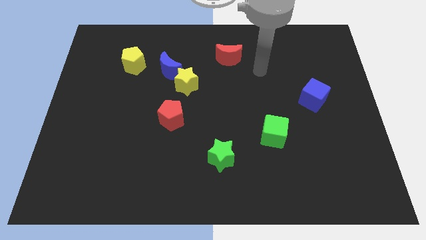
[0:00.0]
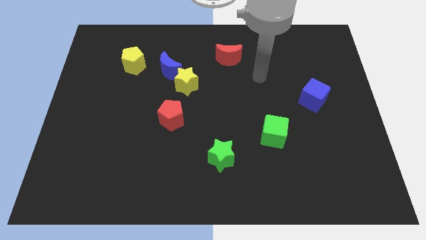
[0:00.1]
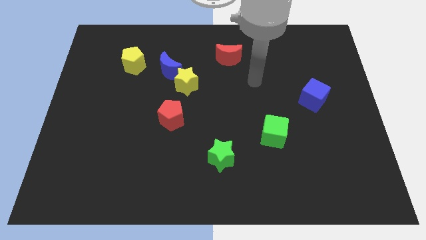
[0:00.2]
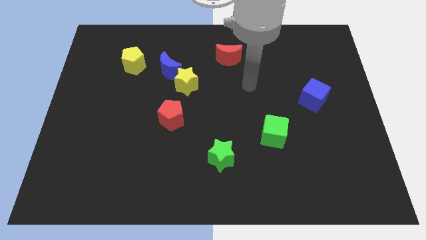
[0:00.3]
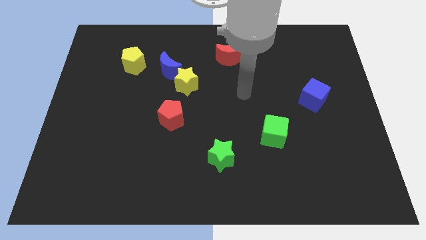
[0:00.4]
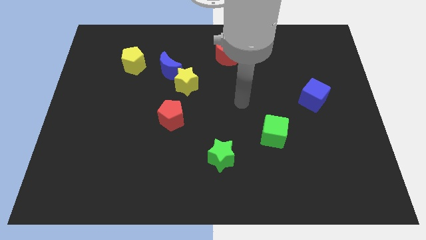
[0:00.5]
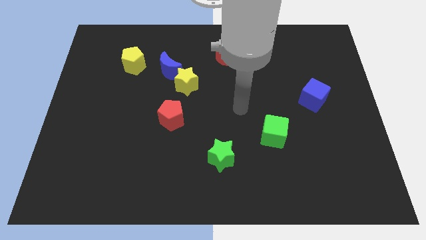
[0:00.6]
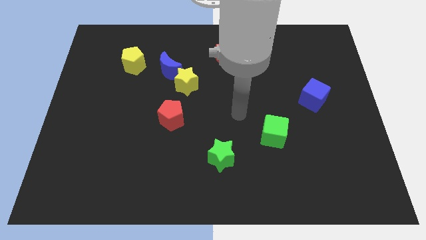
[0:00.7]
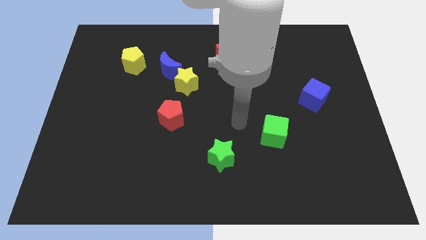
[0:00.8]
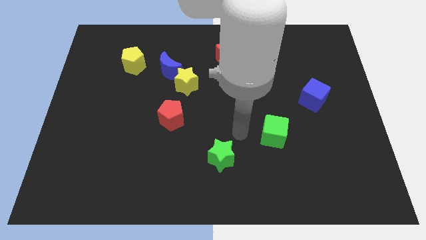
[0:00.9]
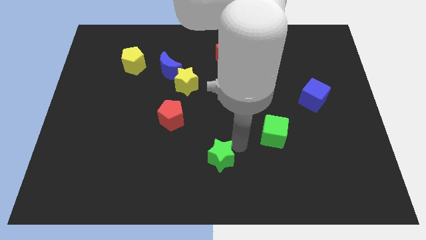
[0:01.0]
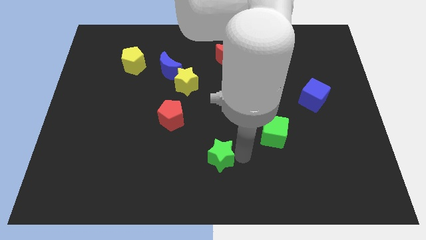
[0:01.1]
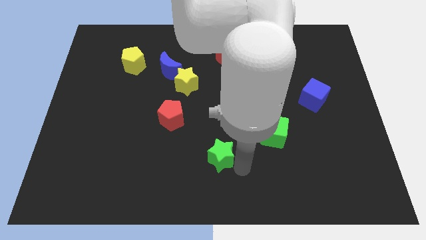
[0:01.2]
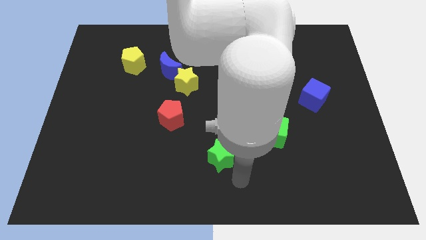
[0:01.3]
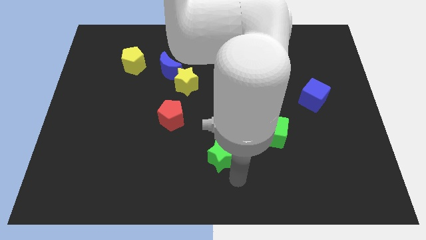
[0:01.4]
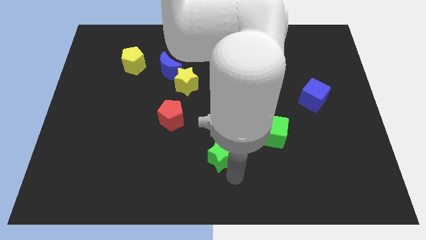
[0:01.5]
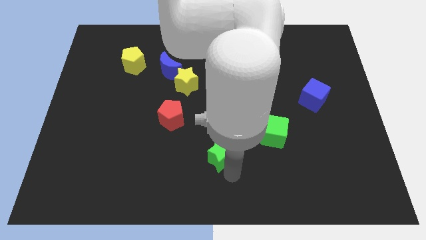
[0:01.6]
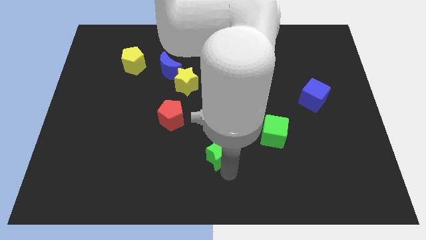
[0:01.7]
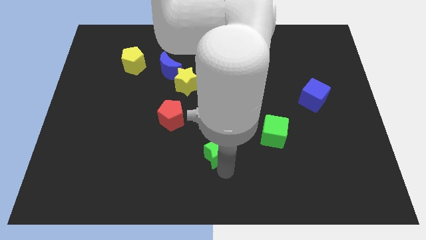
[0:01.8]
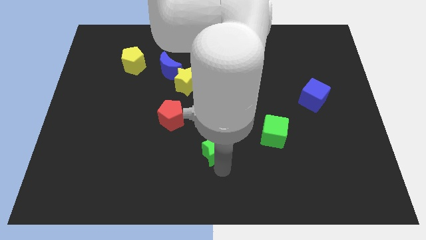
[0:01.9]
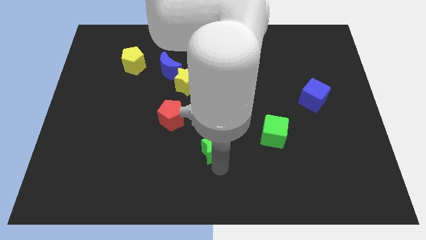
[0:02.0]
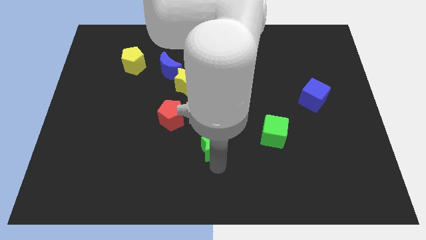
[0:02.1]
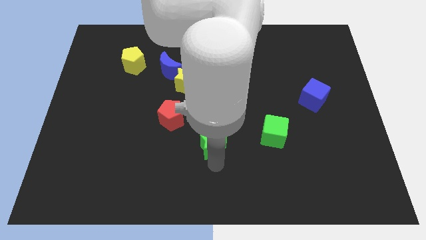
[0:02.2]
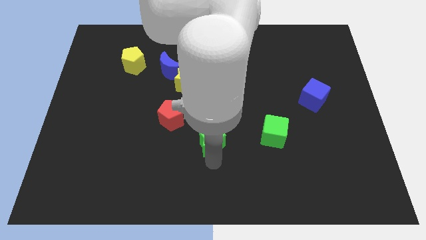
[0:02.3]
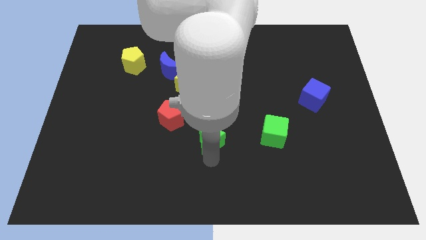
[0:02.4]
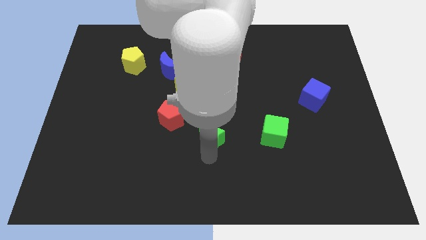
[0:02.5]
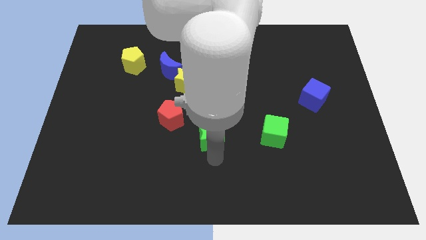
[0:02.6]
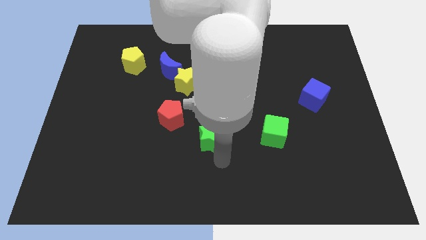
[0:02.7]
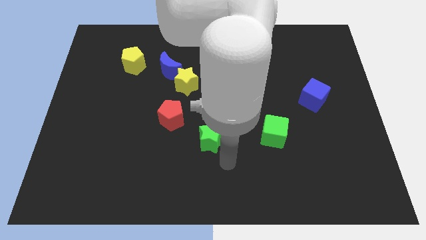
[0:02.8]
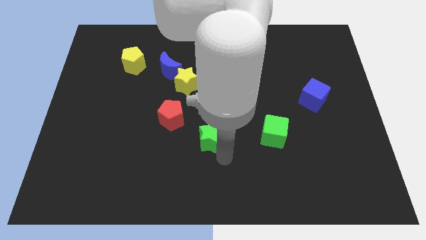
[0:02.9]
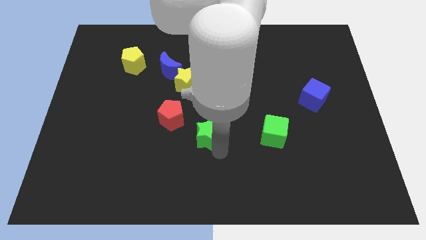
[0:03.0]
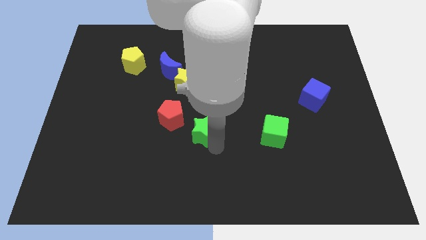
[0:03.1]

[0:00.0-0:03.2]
slide the green star slightly diagonally upwards and left

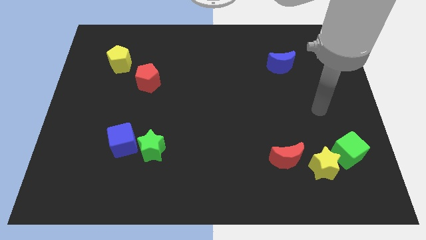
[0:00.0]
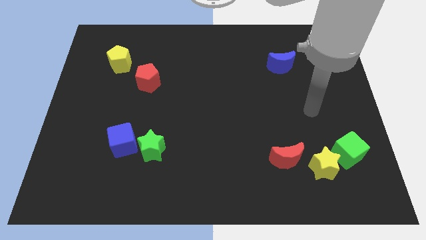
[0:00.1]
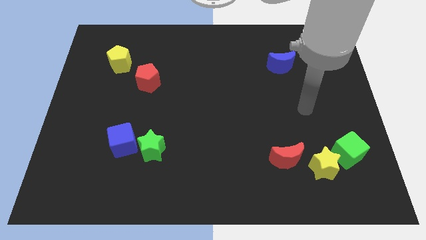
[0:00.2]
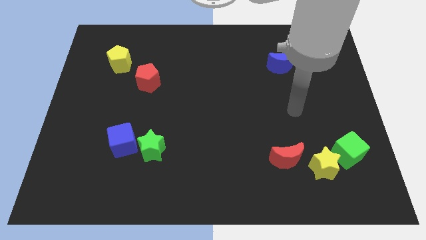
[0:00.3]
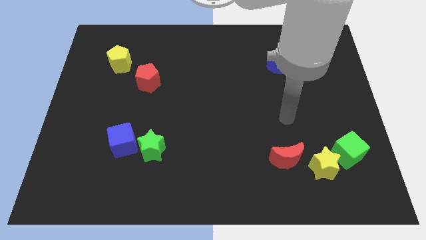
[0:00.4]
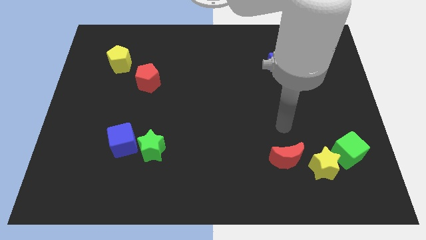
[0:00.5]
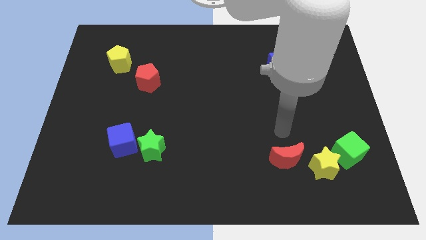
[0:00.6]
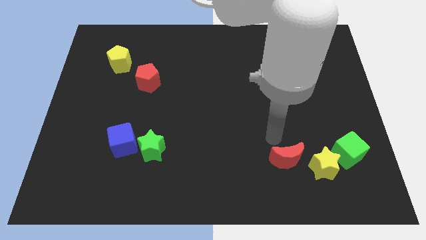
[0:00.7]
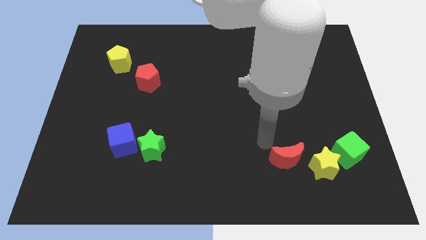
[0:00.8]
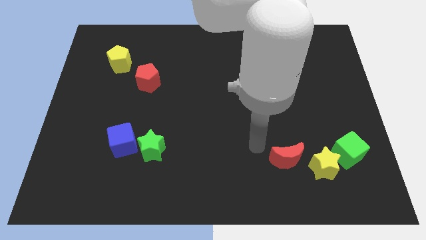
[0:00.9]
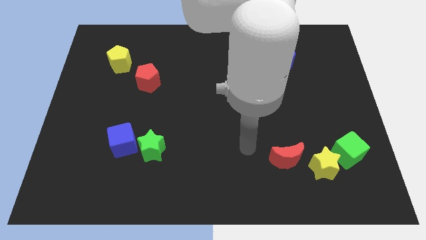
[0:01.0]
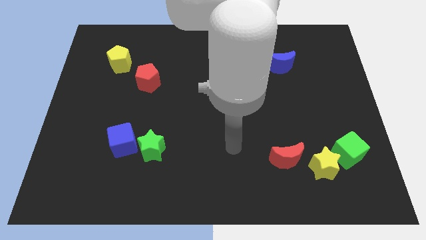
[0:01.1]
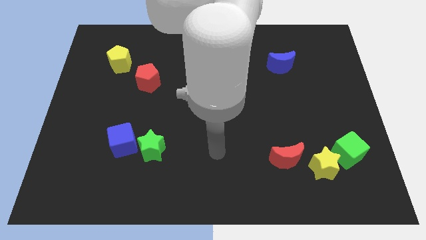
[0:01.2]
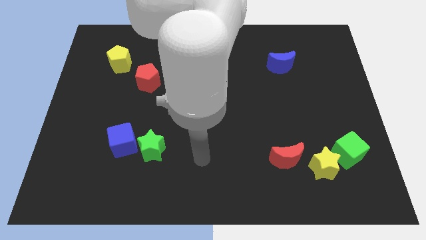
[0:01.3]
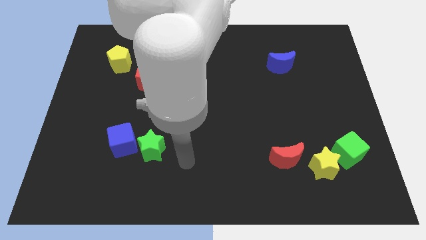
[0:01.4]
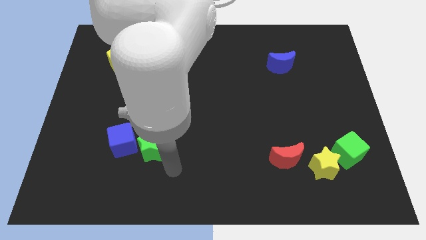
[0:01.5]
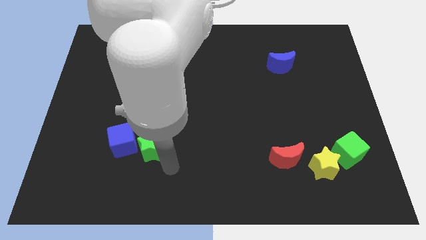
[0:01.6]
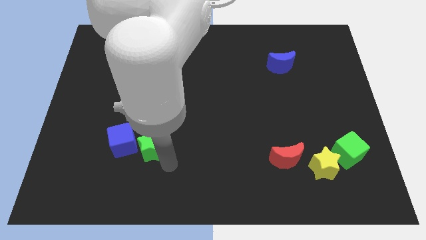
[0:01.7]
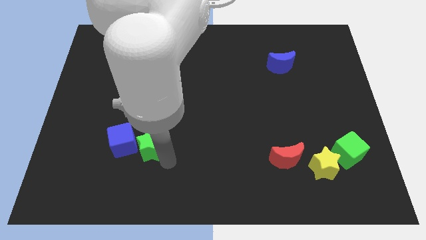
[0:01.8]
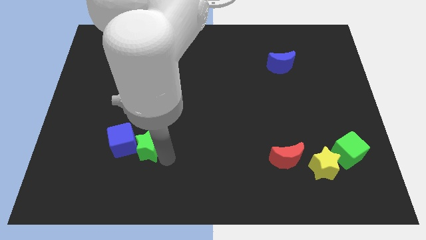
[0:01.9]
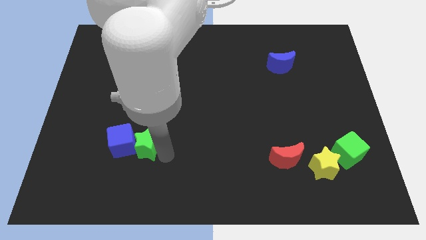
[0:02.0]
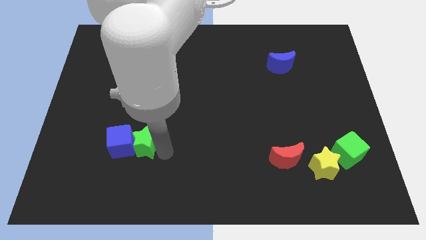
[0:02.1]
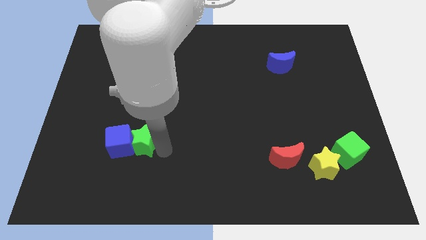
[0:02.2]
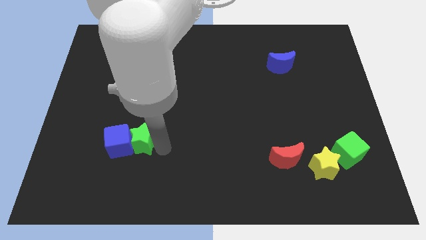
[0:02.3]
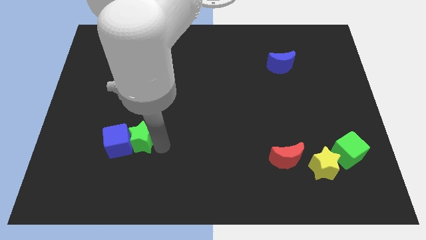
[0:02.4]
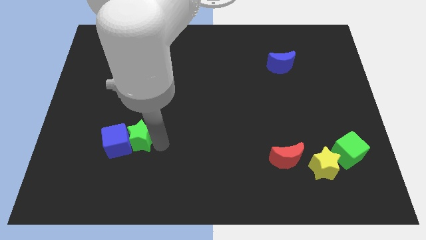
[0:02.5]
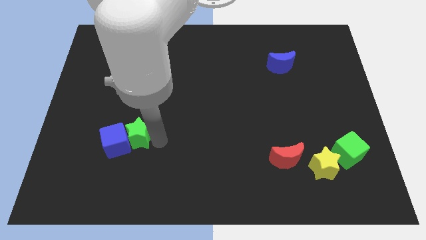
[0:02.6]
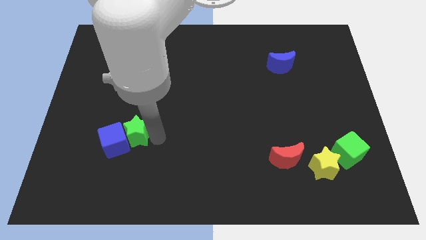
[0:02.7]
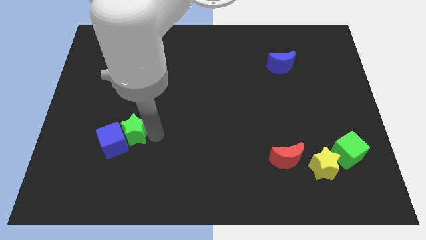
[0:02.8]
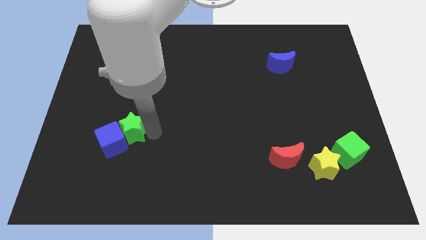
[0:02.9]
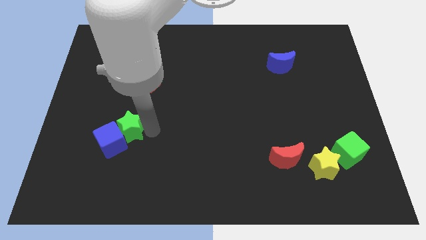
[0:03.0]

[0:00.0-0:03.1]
move the green star slightly up and left

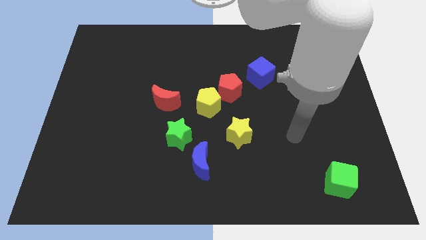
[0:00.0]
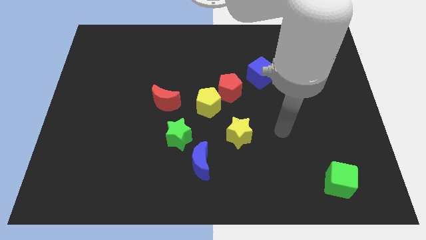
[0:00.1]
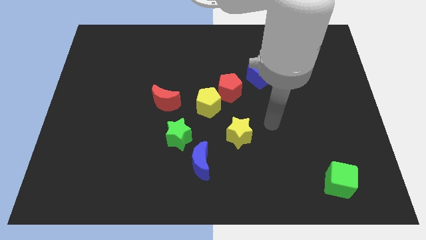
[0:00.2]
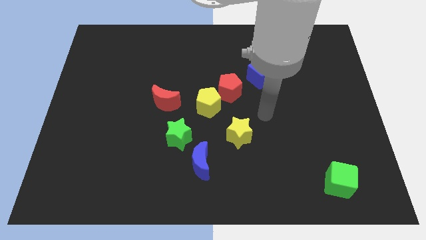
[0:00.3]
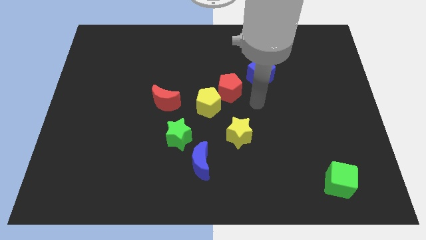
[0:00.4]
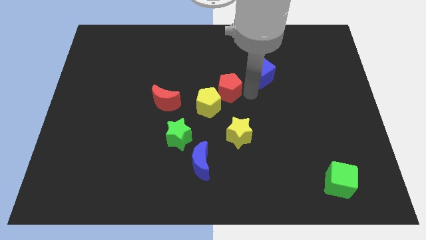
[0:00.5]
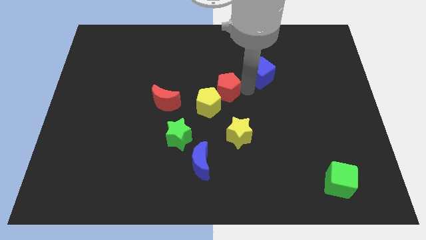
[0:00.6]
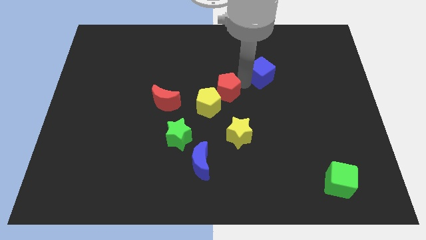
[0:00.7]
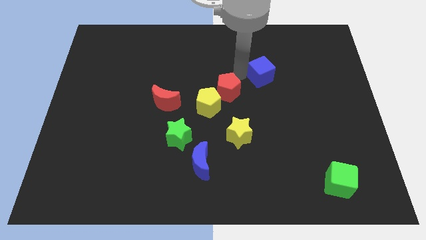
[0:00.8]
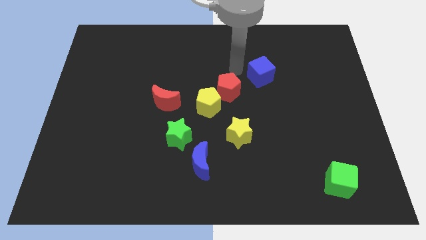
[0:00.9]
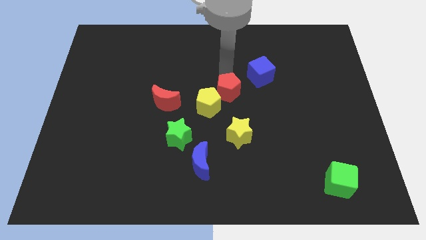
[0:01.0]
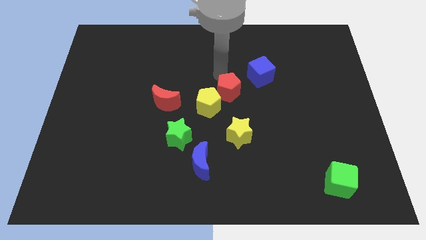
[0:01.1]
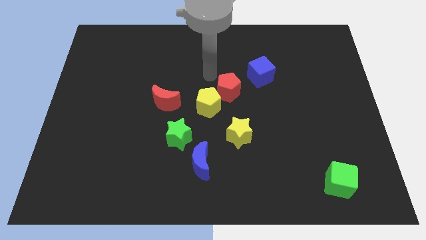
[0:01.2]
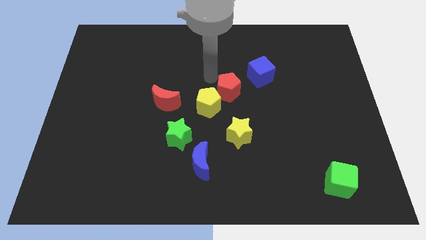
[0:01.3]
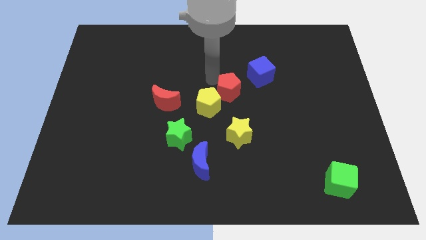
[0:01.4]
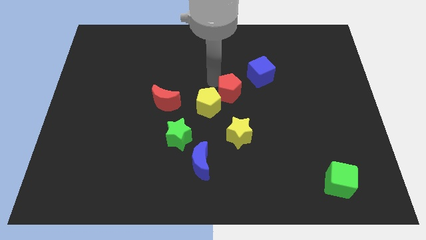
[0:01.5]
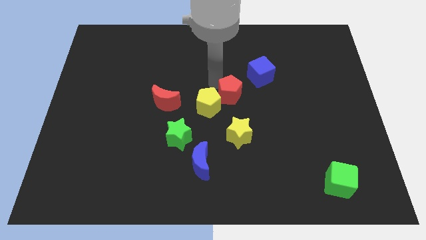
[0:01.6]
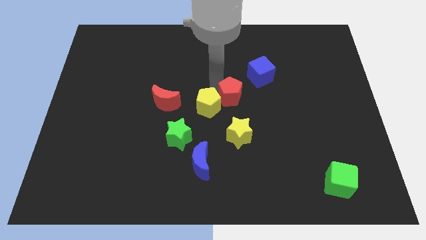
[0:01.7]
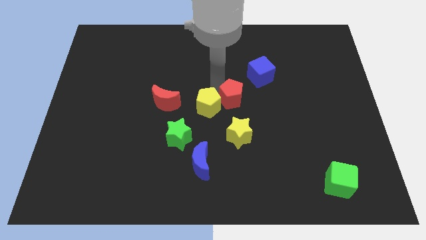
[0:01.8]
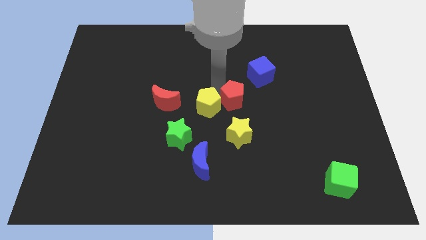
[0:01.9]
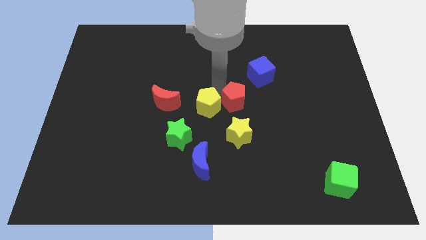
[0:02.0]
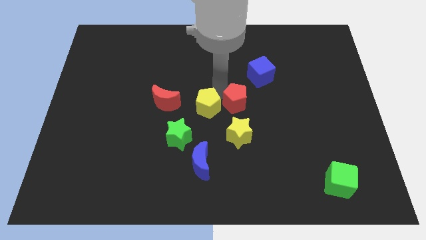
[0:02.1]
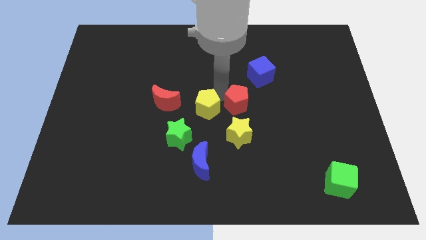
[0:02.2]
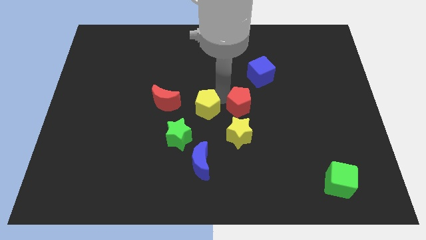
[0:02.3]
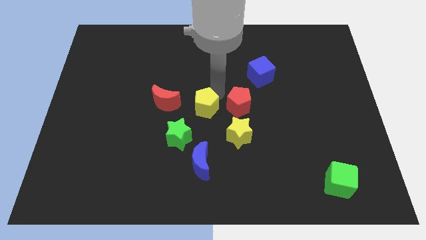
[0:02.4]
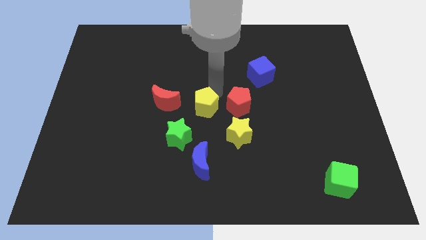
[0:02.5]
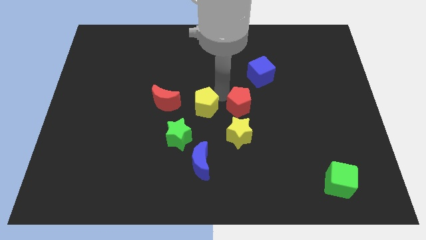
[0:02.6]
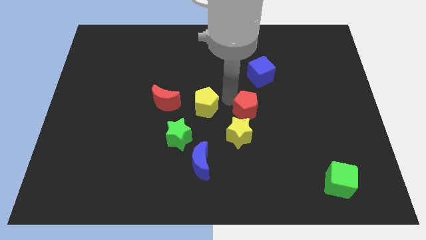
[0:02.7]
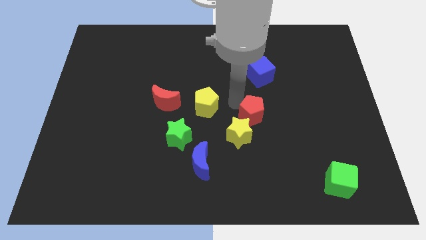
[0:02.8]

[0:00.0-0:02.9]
slide the red pentagon down and right a little bit
